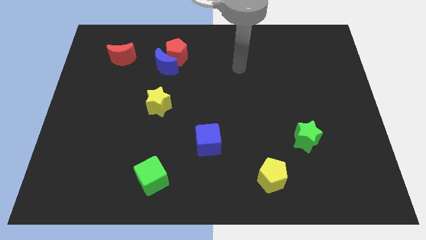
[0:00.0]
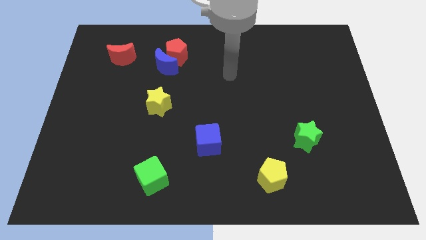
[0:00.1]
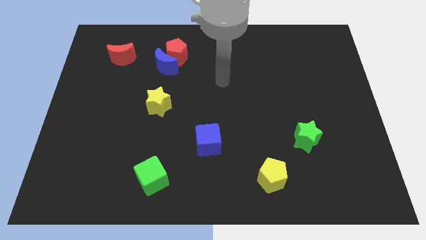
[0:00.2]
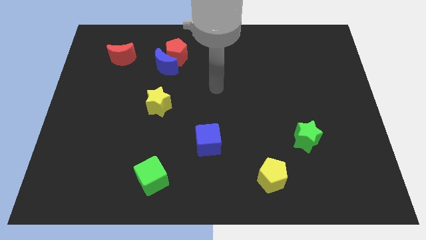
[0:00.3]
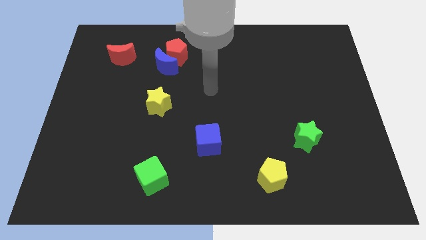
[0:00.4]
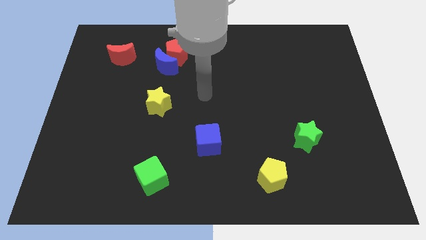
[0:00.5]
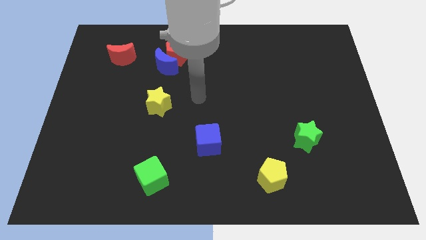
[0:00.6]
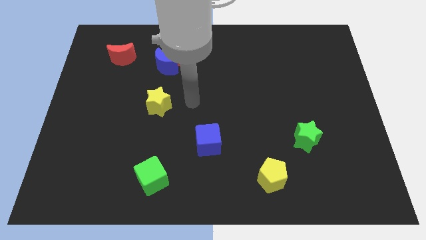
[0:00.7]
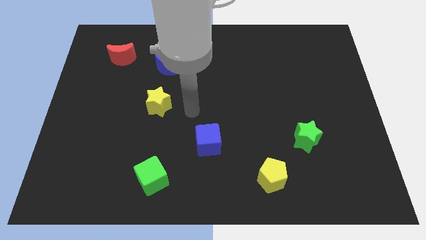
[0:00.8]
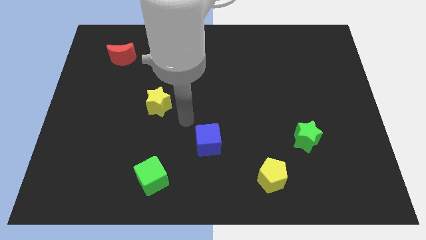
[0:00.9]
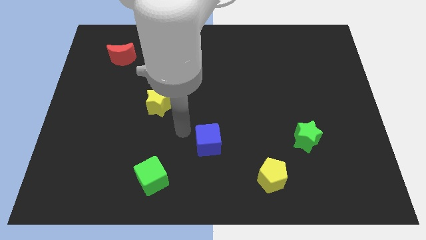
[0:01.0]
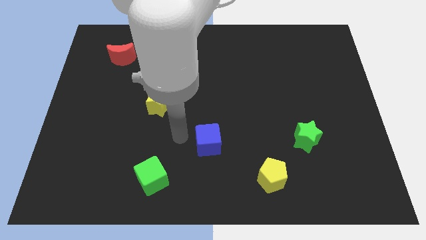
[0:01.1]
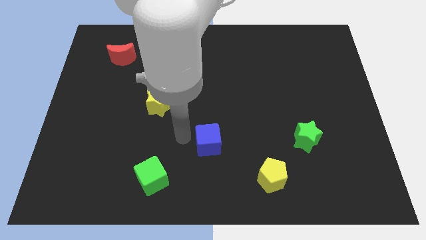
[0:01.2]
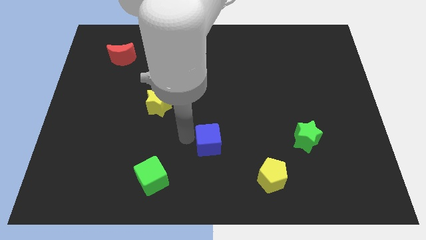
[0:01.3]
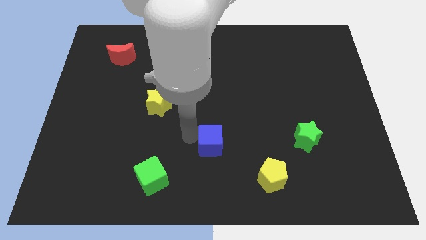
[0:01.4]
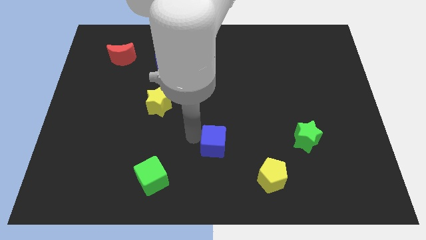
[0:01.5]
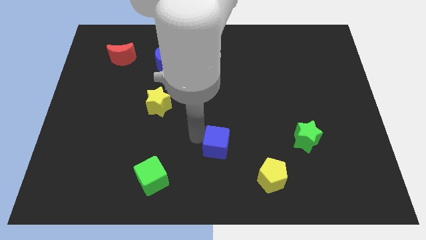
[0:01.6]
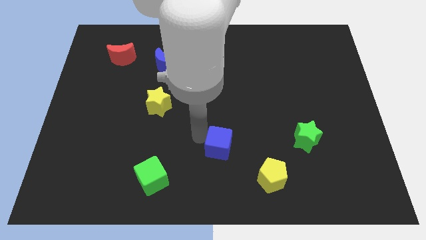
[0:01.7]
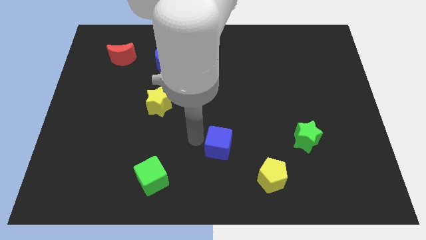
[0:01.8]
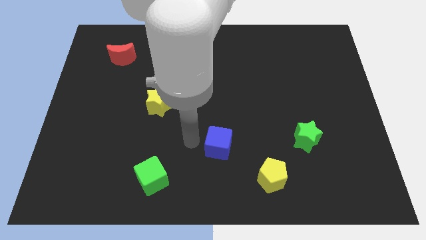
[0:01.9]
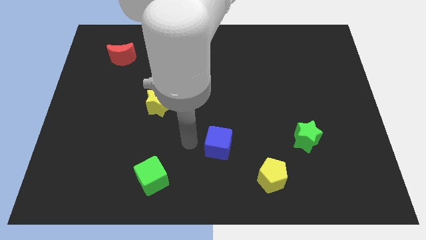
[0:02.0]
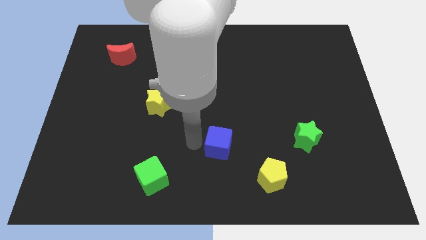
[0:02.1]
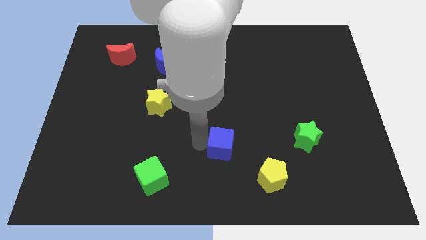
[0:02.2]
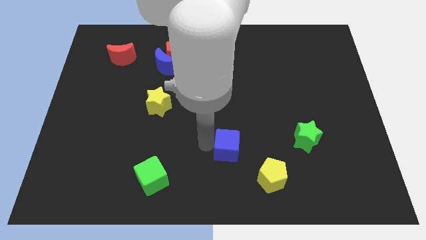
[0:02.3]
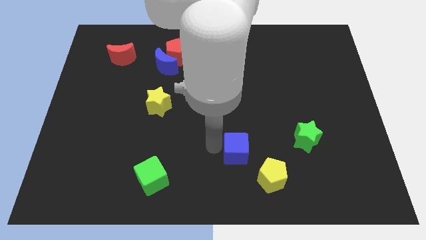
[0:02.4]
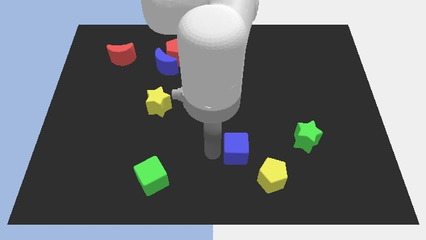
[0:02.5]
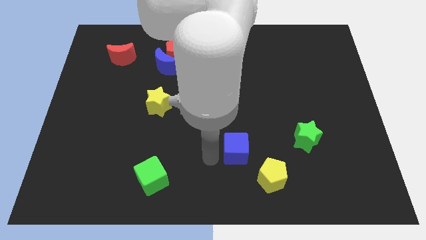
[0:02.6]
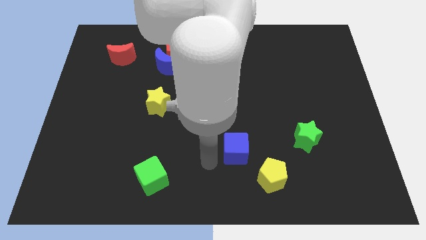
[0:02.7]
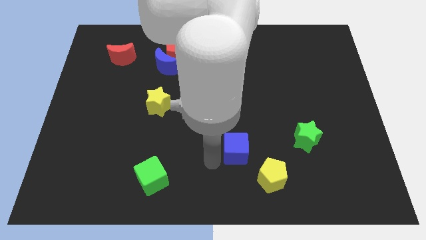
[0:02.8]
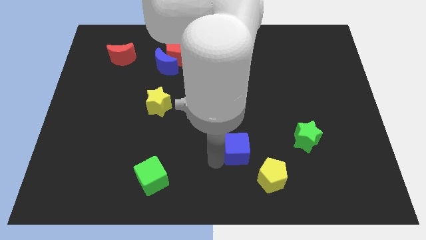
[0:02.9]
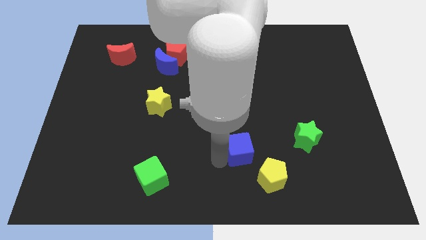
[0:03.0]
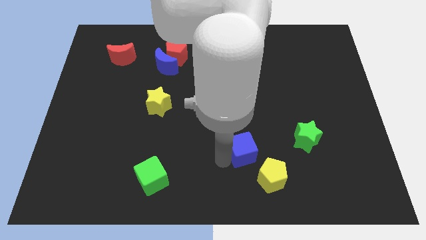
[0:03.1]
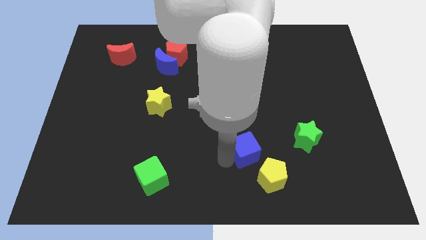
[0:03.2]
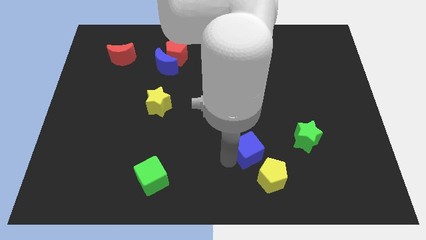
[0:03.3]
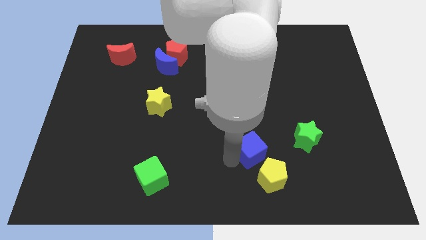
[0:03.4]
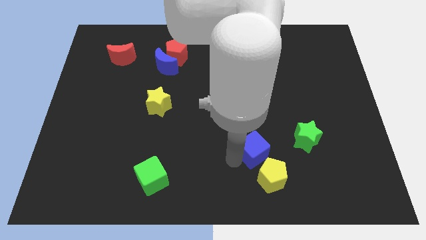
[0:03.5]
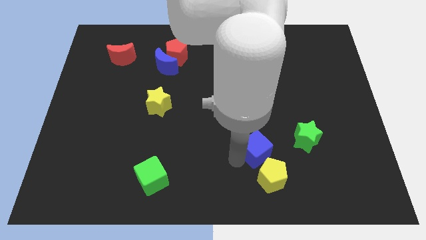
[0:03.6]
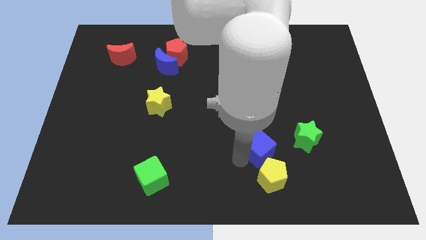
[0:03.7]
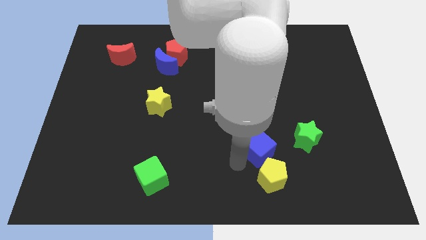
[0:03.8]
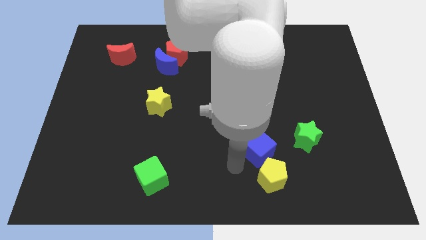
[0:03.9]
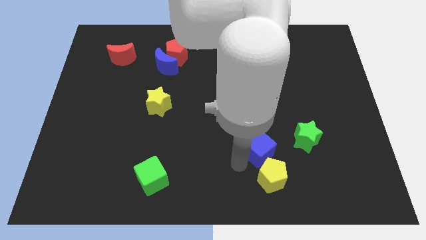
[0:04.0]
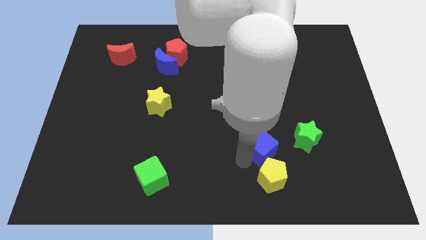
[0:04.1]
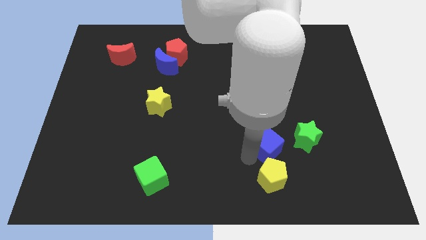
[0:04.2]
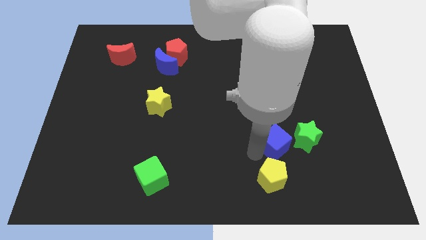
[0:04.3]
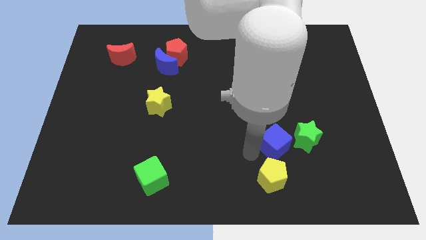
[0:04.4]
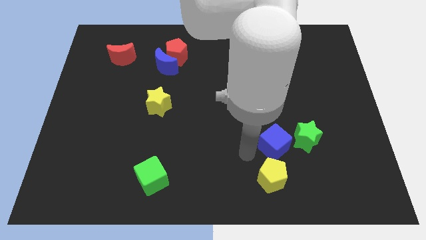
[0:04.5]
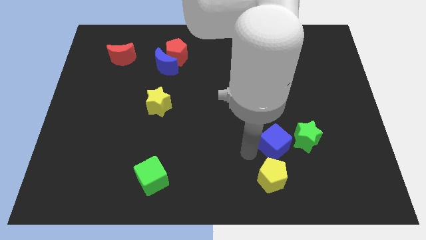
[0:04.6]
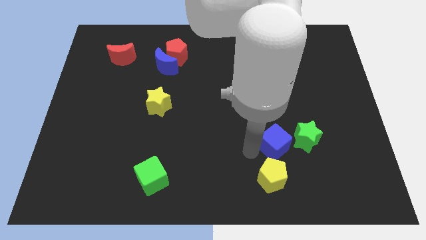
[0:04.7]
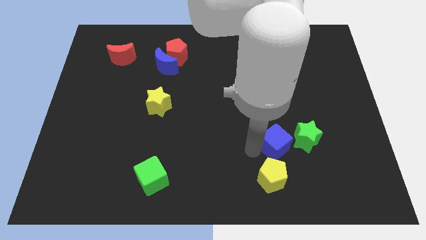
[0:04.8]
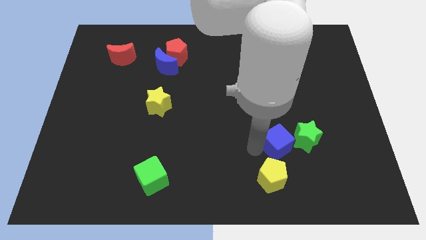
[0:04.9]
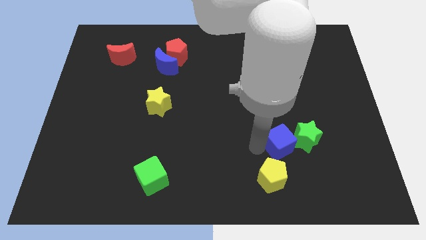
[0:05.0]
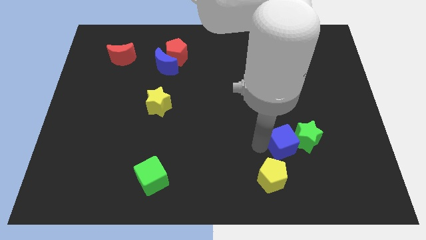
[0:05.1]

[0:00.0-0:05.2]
put the blue cube close to the green star

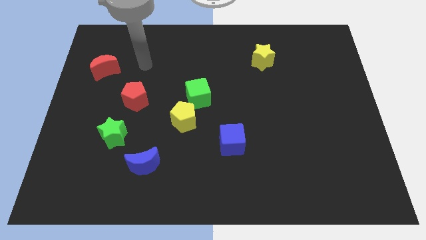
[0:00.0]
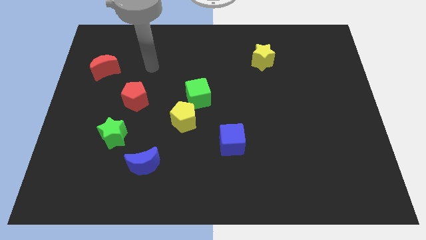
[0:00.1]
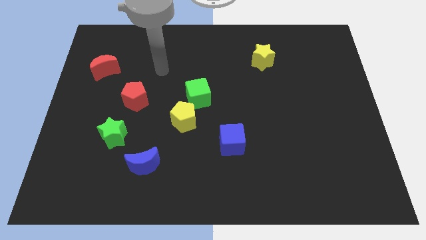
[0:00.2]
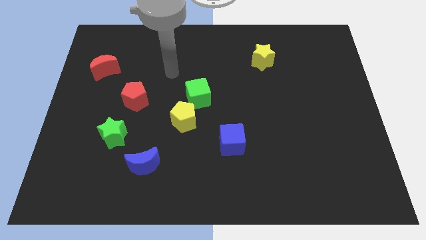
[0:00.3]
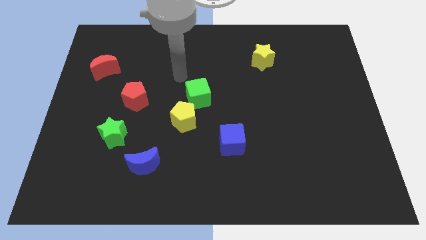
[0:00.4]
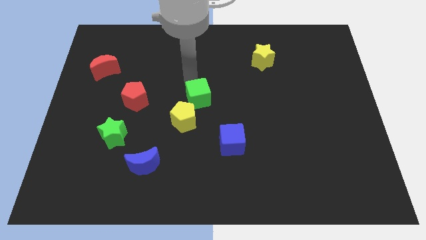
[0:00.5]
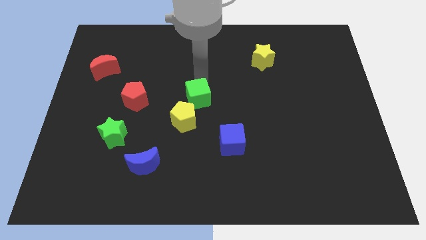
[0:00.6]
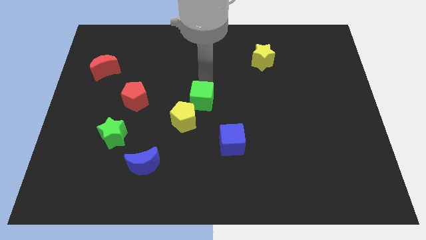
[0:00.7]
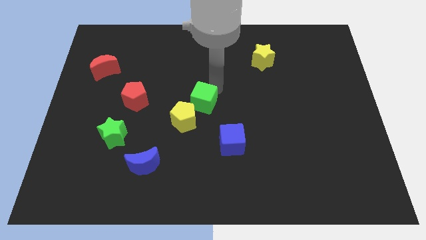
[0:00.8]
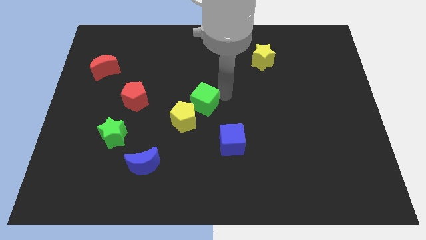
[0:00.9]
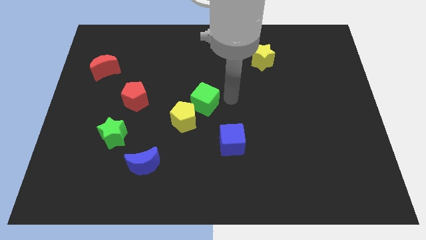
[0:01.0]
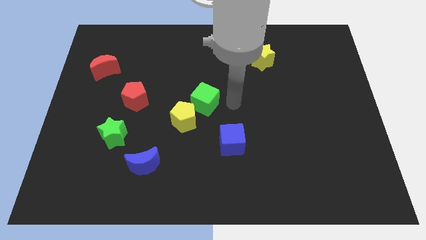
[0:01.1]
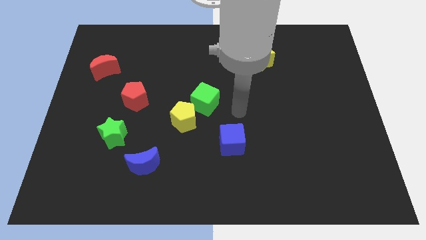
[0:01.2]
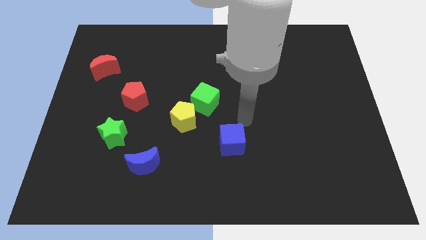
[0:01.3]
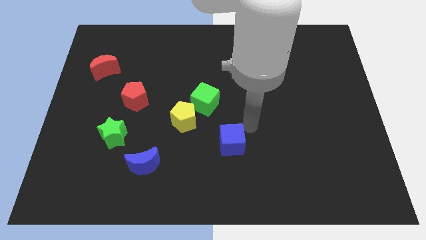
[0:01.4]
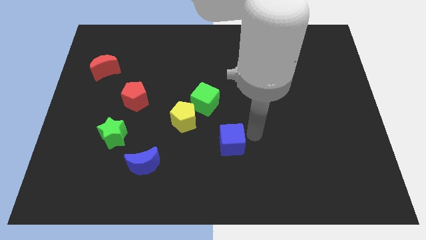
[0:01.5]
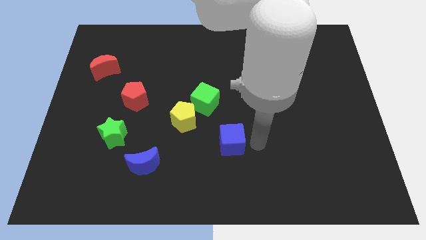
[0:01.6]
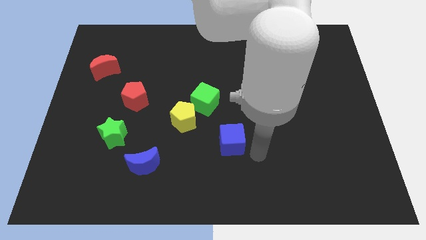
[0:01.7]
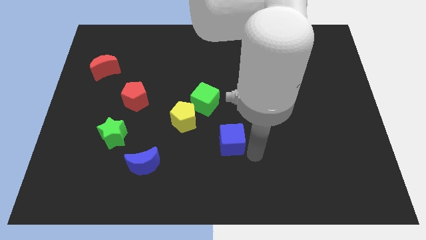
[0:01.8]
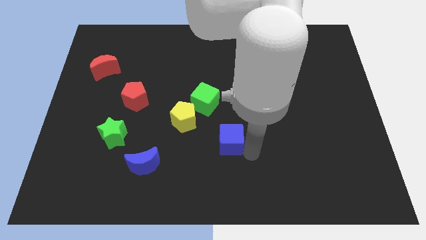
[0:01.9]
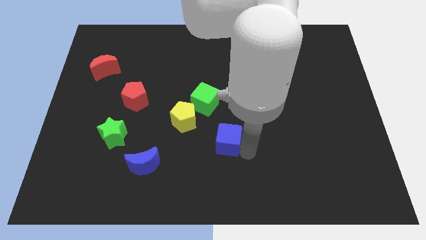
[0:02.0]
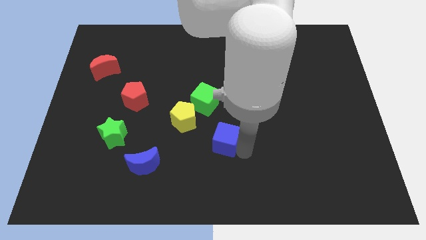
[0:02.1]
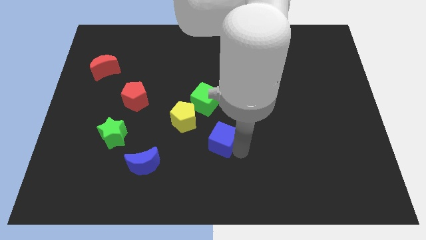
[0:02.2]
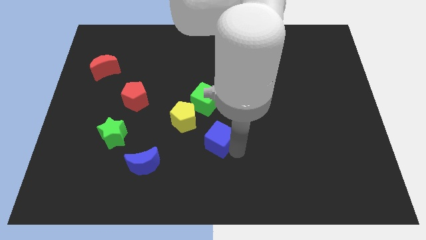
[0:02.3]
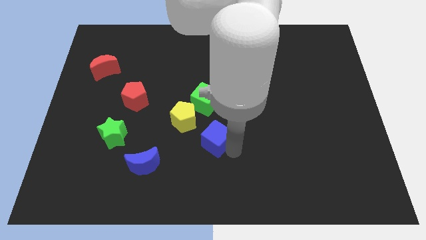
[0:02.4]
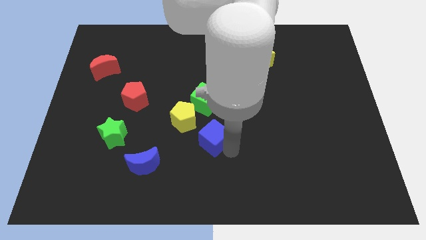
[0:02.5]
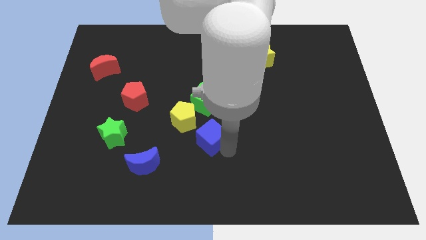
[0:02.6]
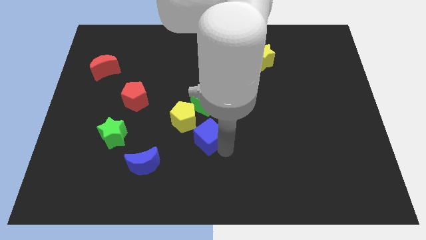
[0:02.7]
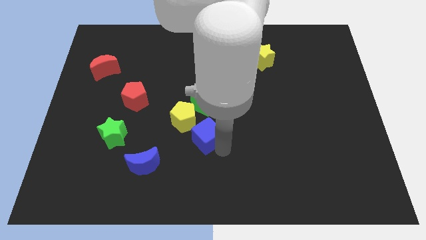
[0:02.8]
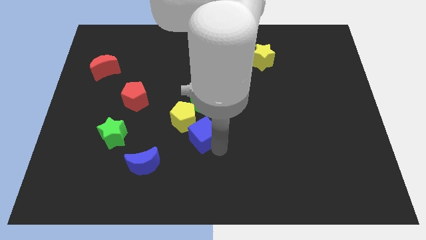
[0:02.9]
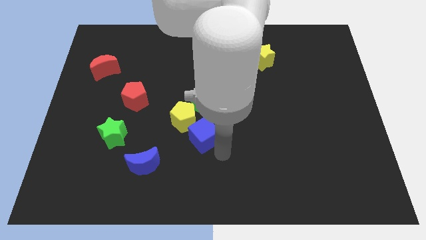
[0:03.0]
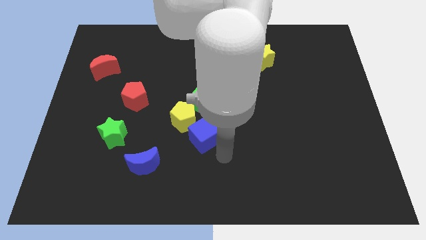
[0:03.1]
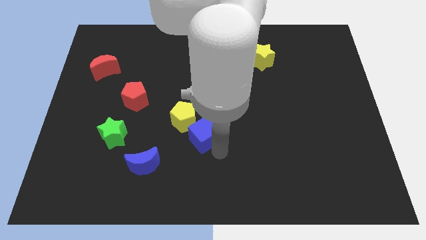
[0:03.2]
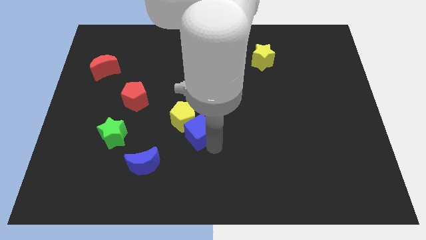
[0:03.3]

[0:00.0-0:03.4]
move the blue cube towards the yellow pentagon
